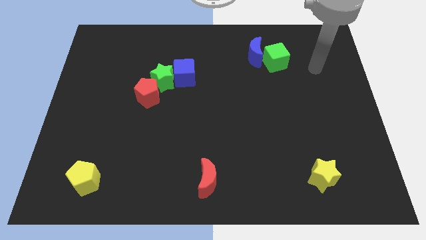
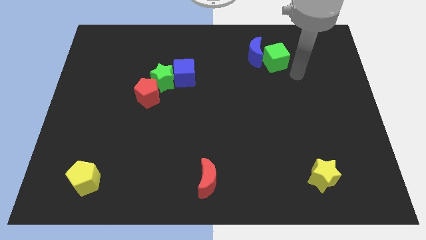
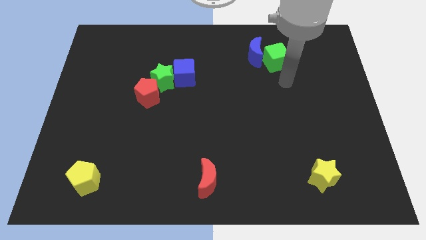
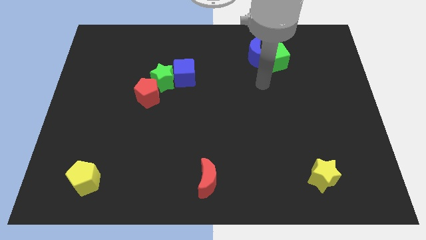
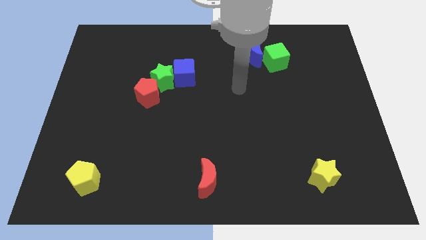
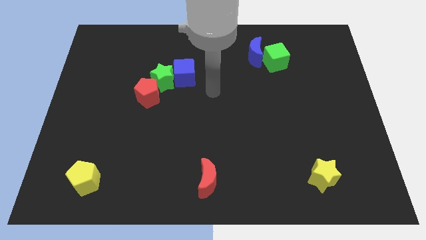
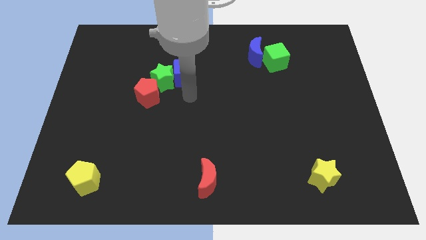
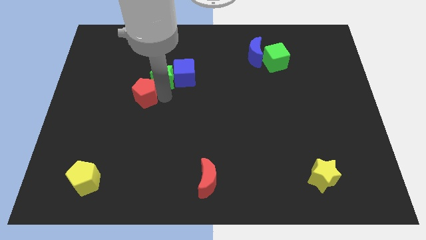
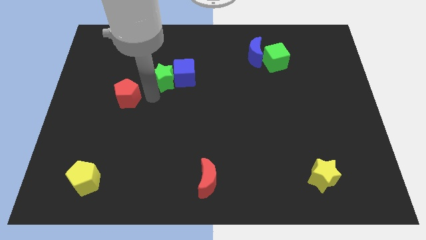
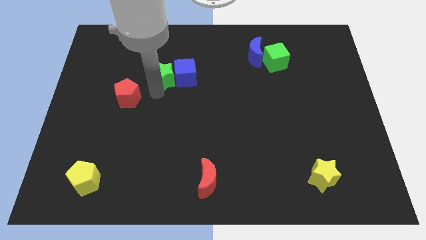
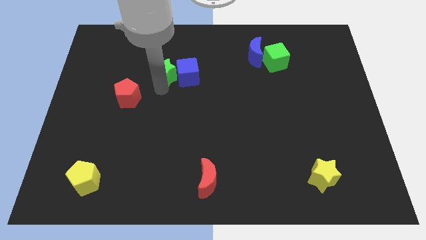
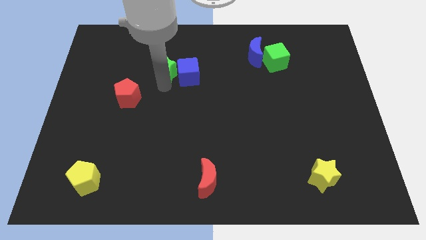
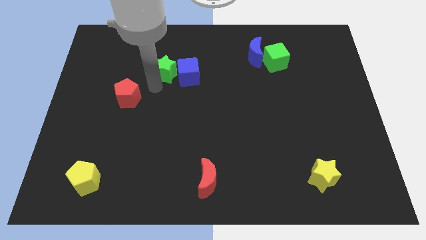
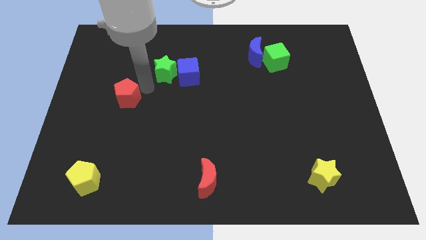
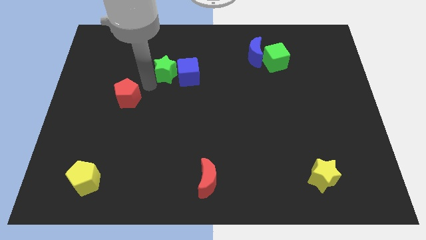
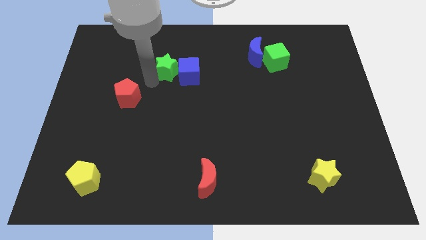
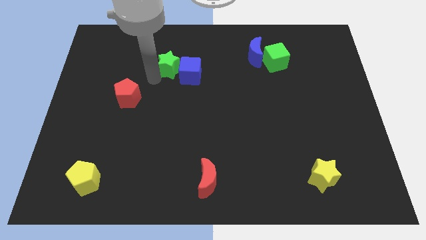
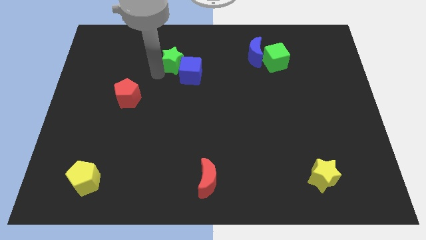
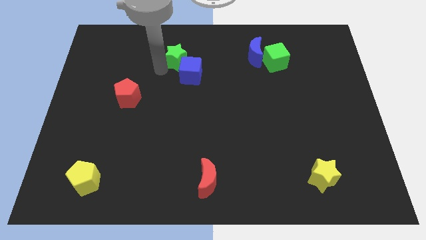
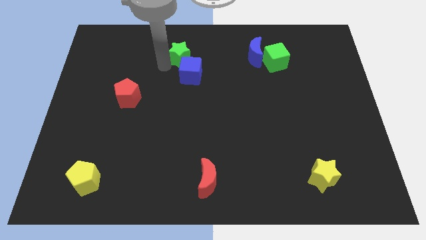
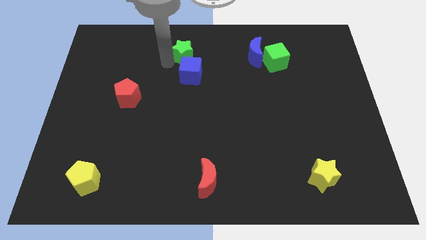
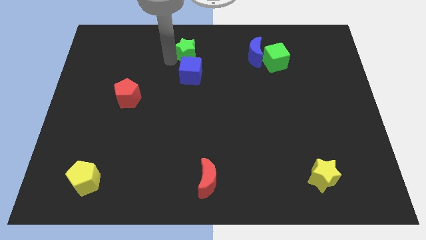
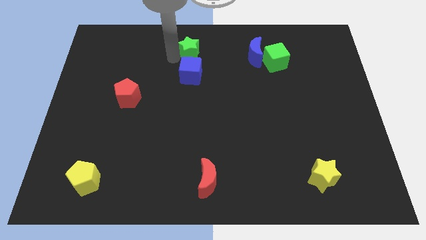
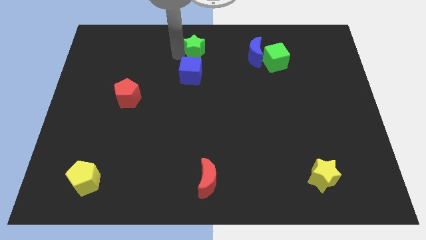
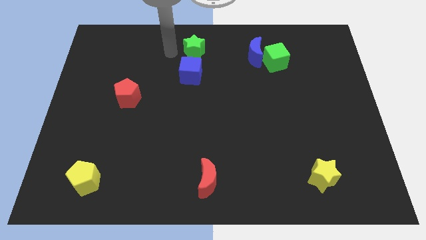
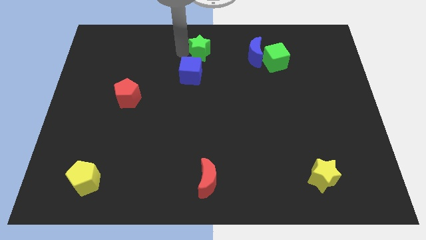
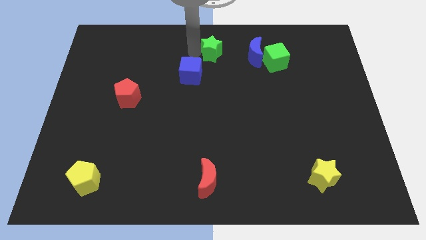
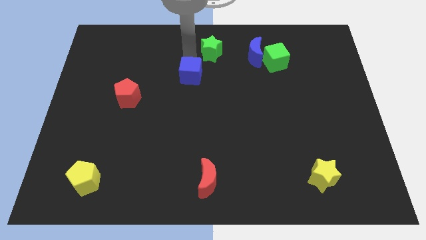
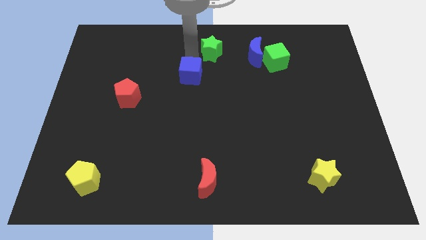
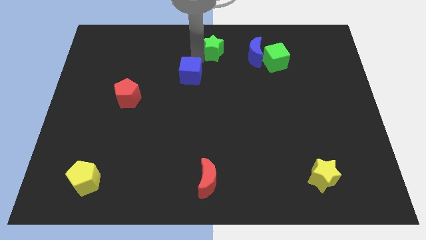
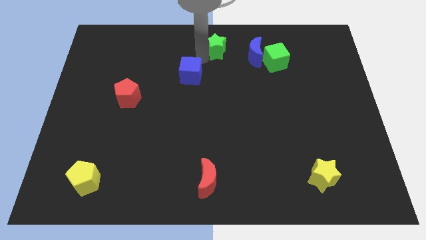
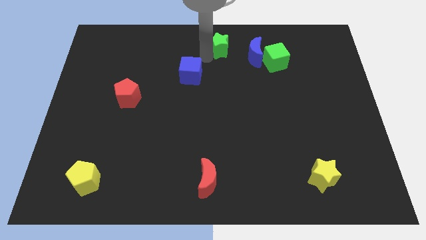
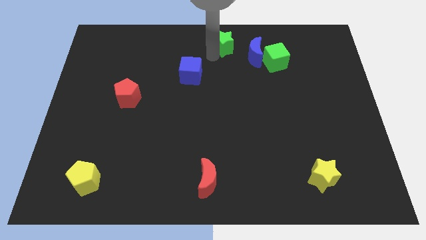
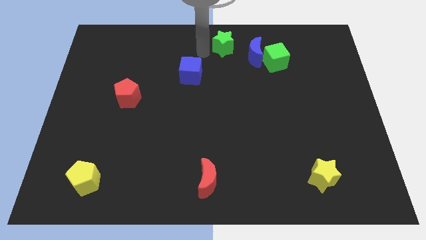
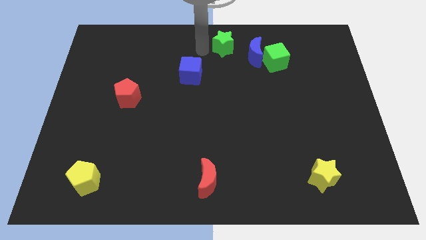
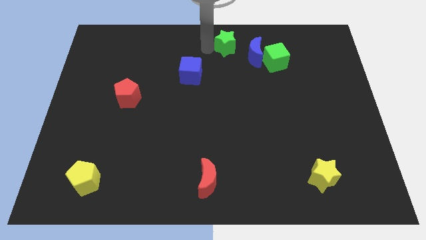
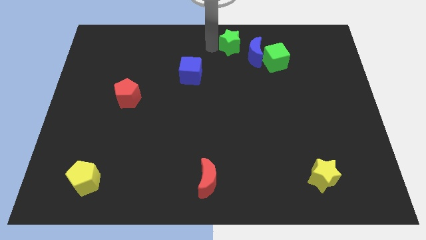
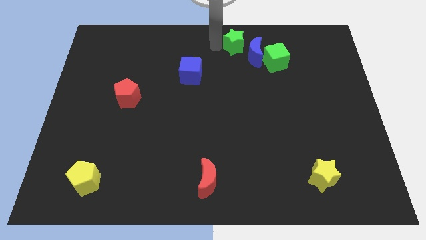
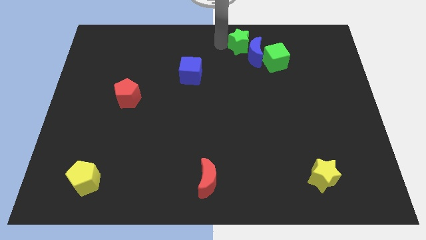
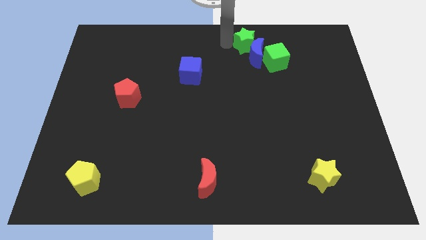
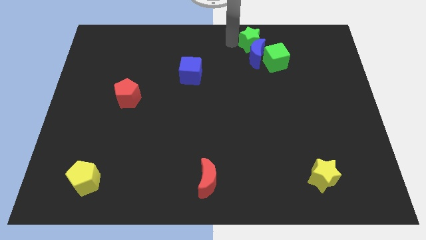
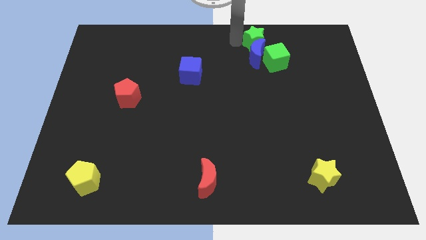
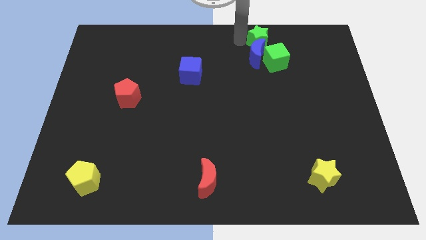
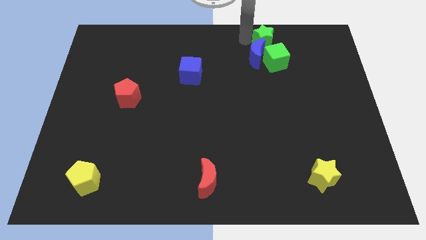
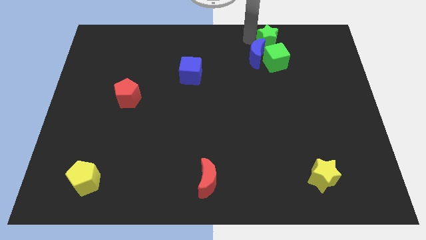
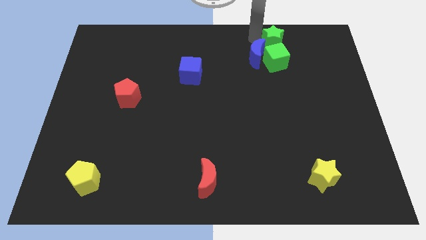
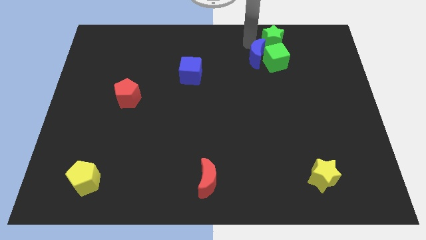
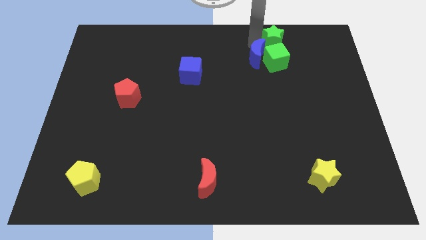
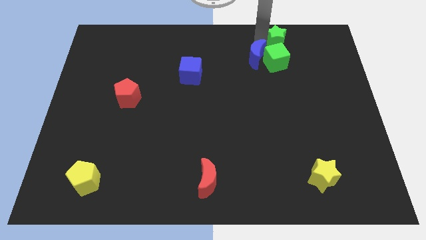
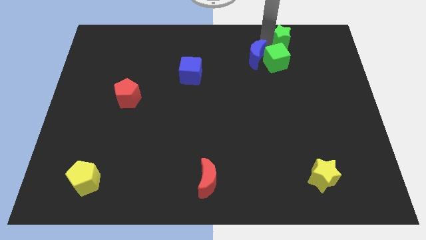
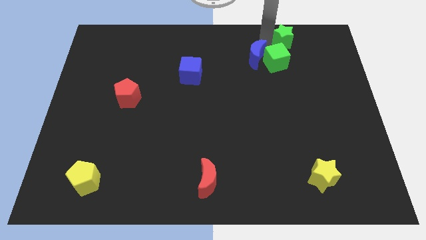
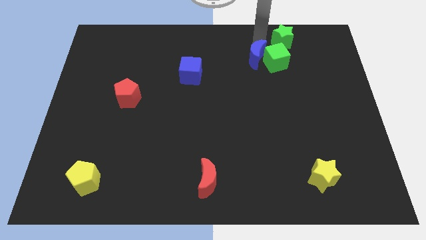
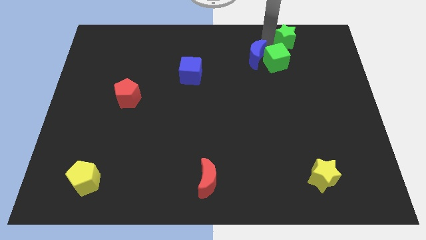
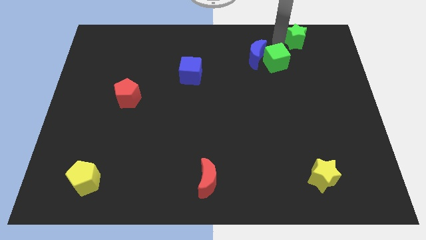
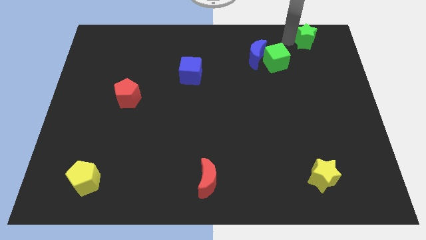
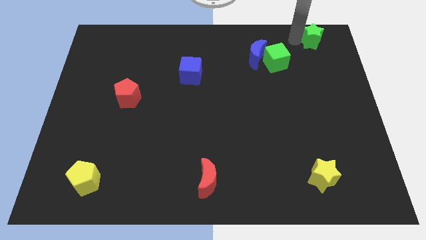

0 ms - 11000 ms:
slide the green star to the top right

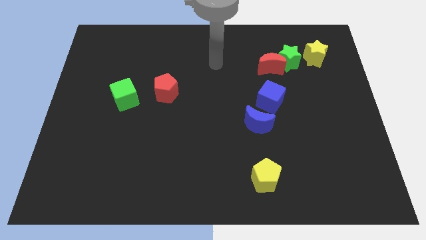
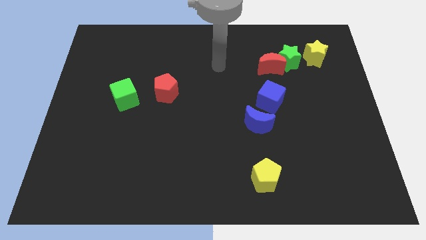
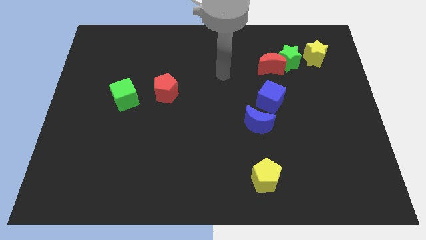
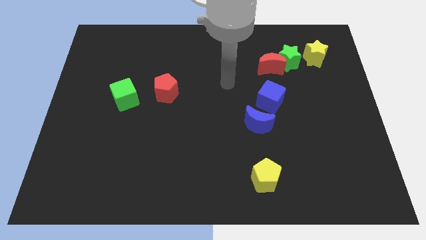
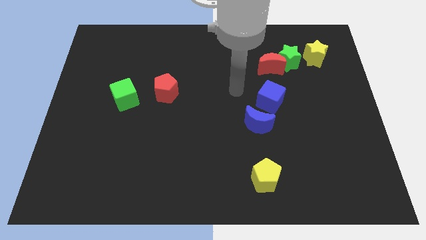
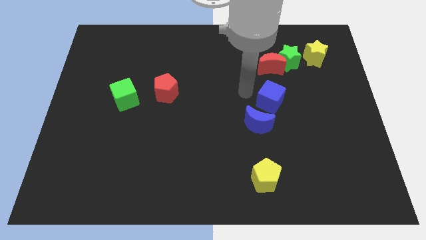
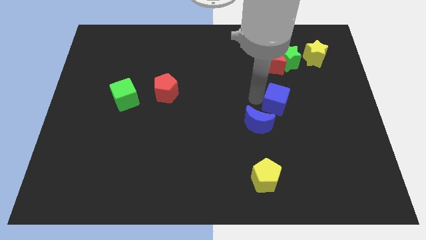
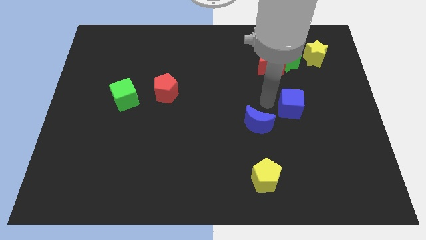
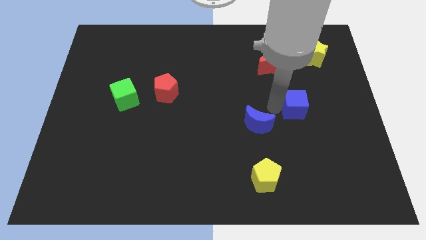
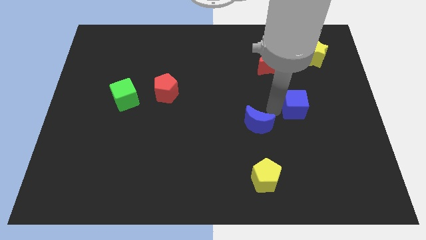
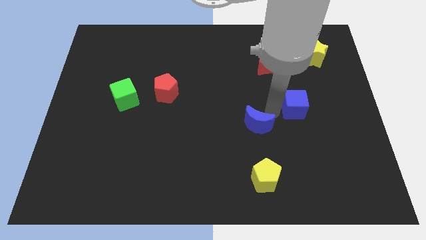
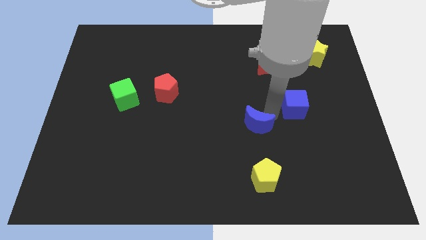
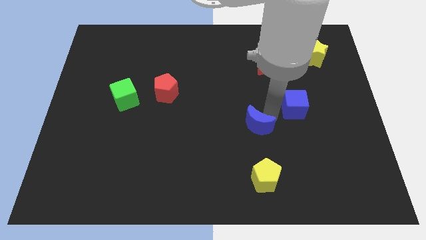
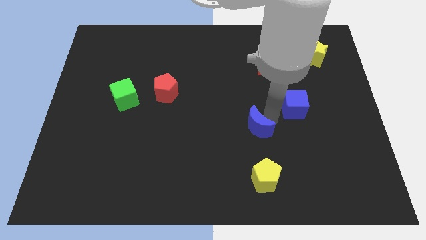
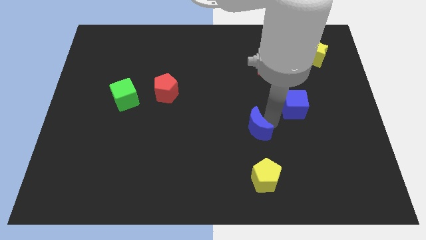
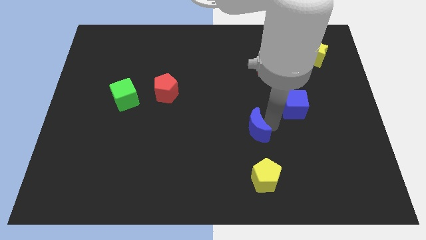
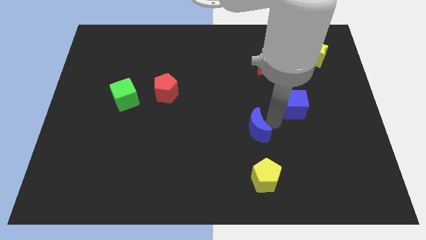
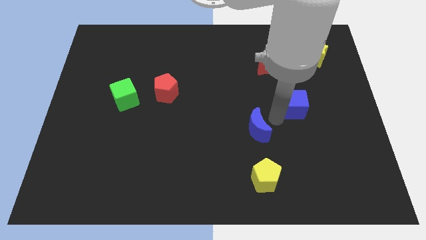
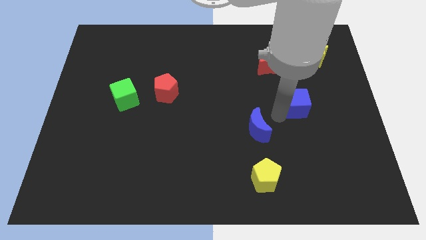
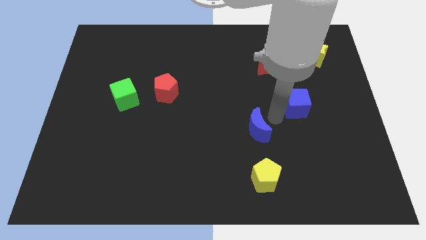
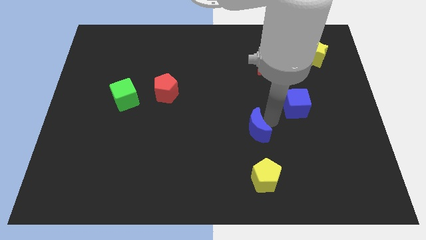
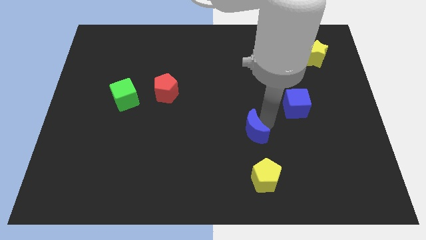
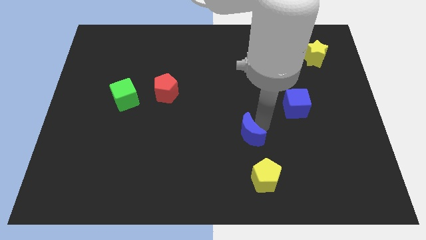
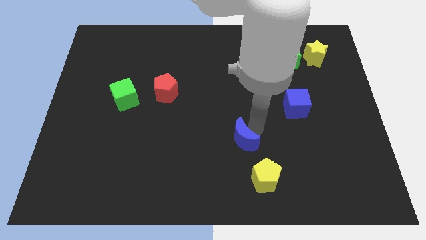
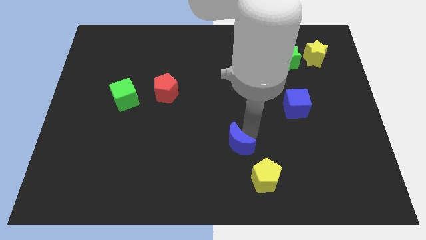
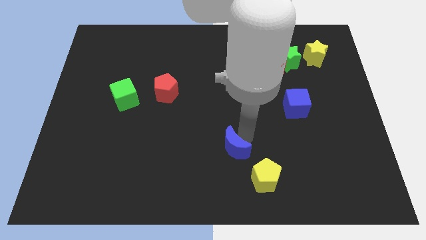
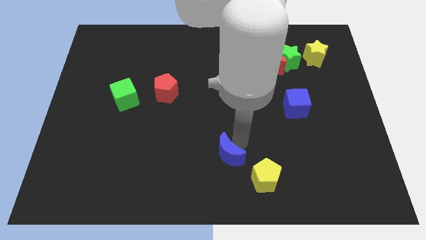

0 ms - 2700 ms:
push the blue moon to the bottom side
